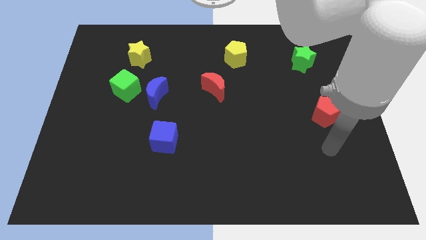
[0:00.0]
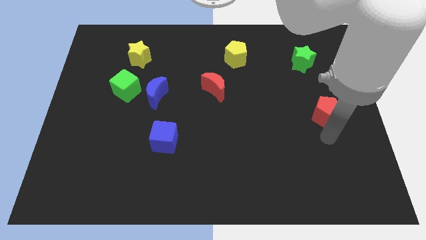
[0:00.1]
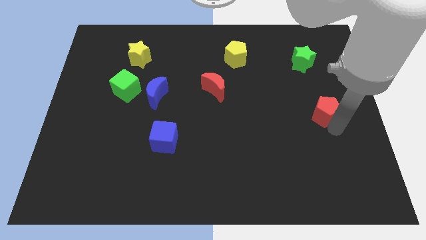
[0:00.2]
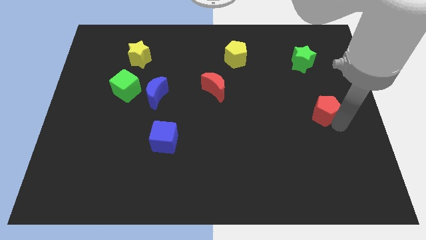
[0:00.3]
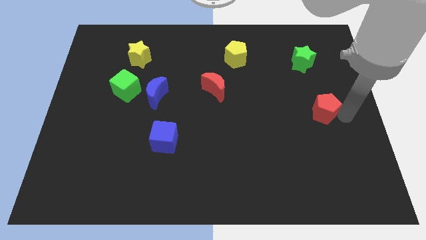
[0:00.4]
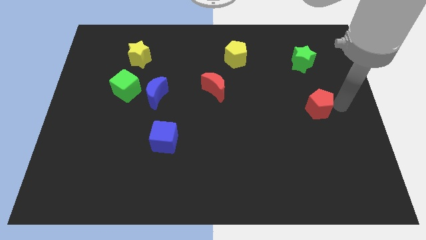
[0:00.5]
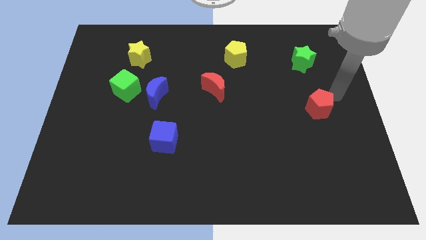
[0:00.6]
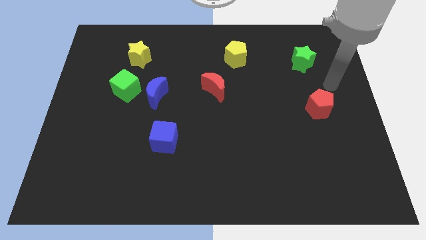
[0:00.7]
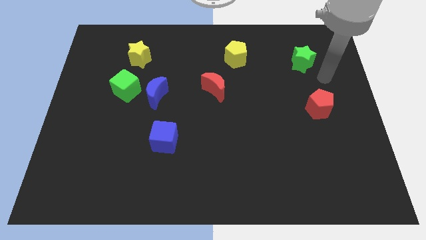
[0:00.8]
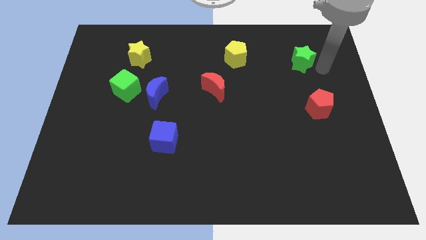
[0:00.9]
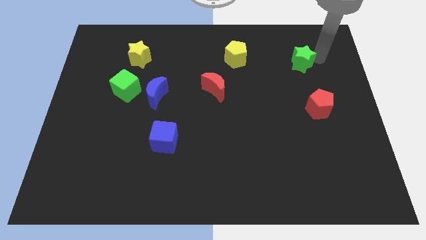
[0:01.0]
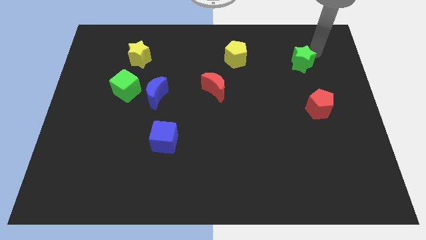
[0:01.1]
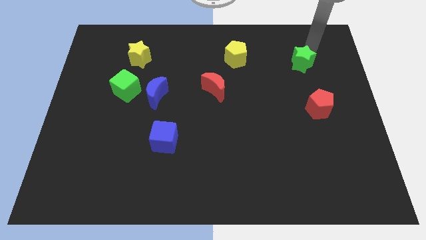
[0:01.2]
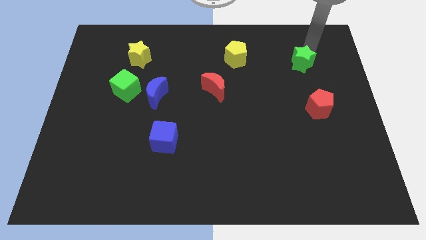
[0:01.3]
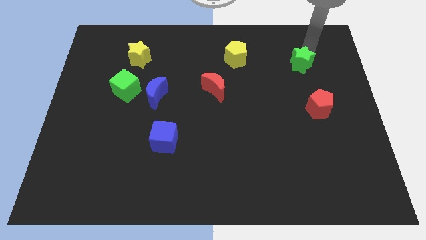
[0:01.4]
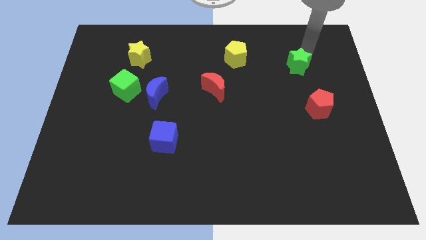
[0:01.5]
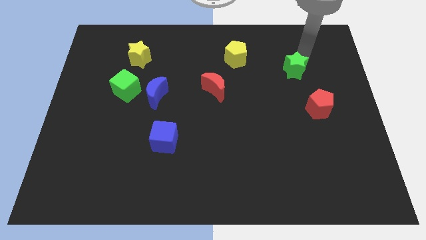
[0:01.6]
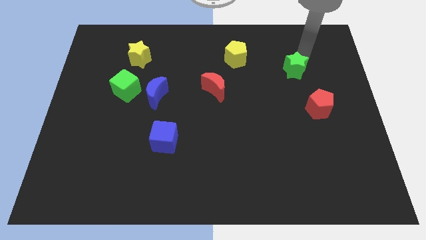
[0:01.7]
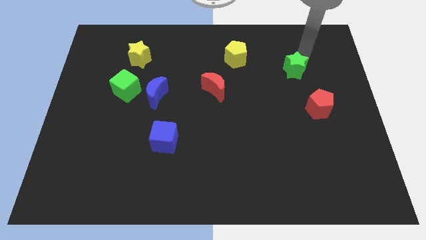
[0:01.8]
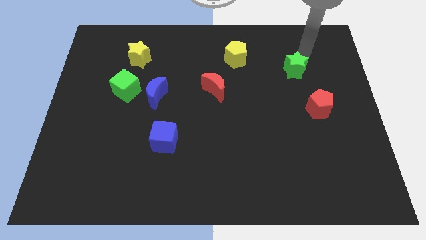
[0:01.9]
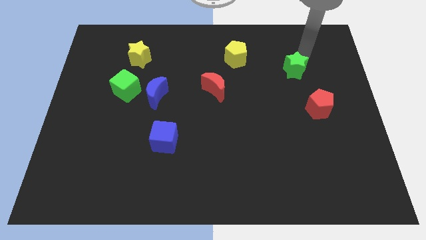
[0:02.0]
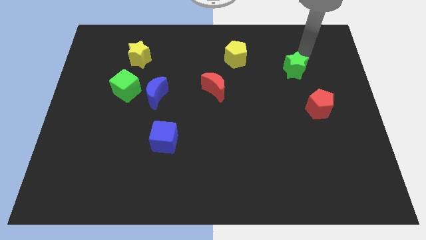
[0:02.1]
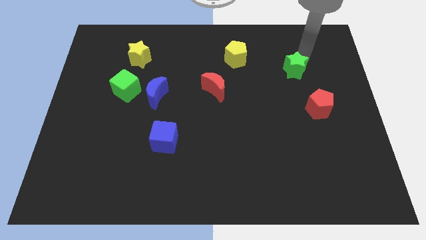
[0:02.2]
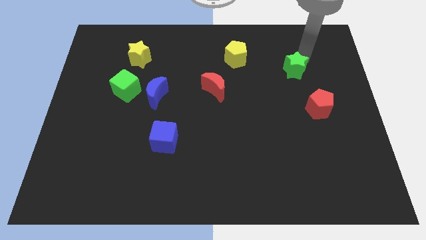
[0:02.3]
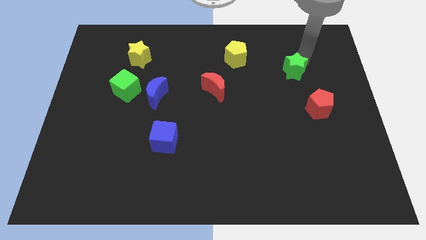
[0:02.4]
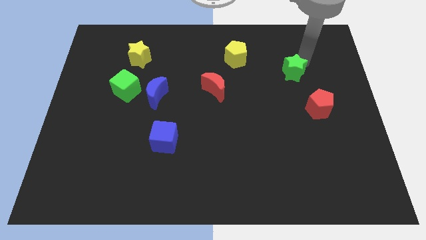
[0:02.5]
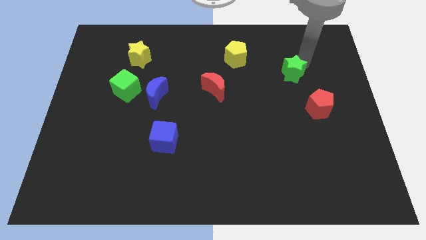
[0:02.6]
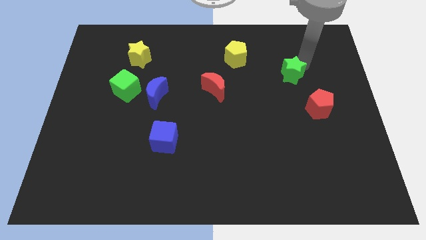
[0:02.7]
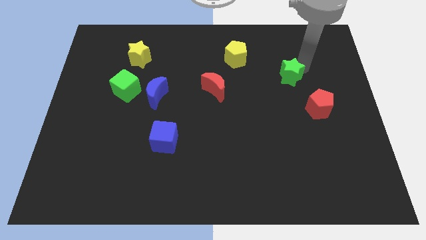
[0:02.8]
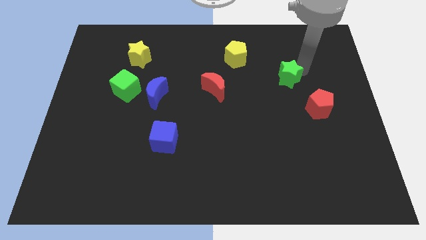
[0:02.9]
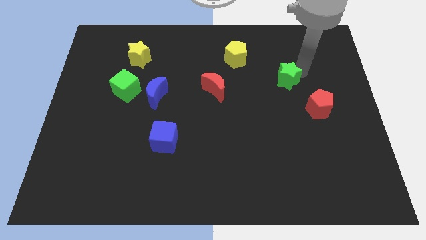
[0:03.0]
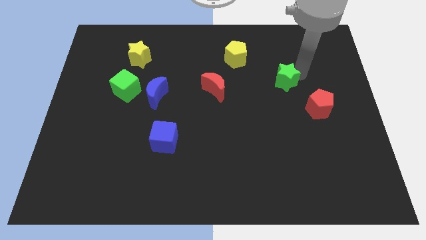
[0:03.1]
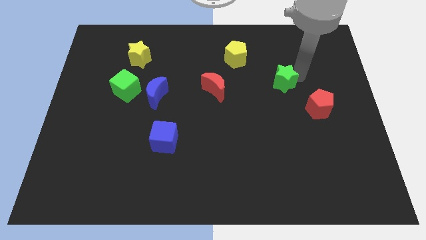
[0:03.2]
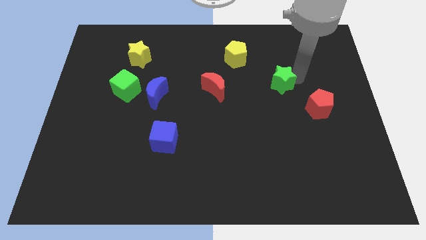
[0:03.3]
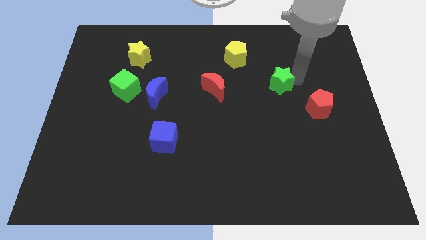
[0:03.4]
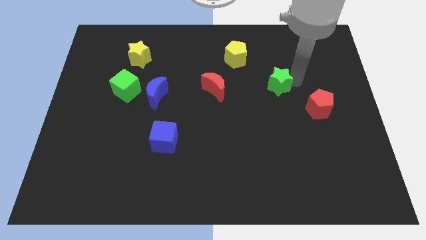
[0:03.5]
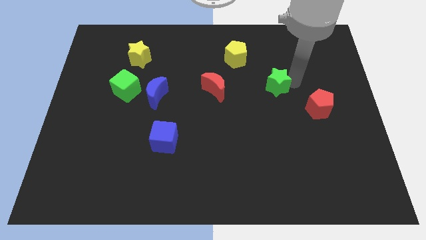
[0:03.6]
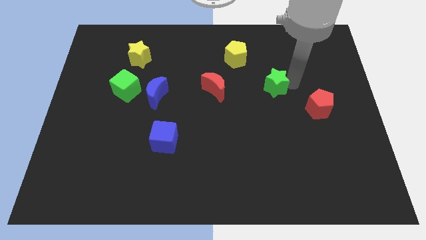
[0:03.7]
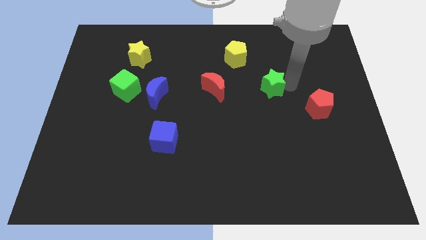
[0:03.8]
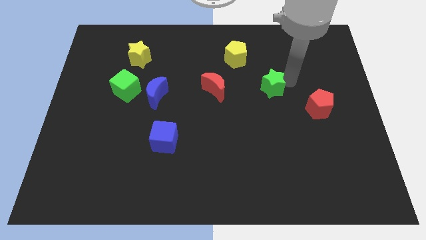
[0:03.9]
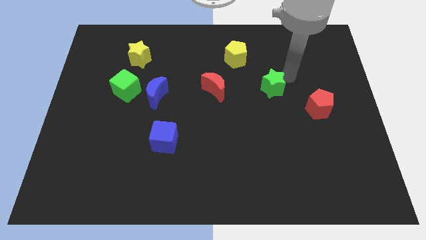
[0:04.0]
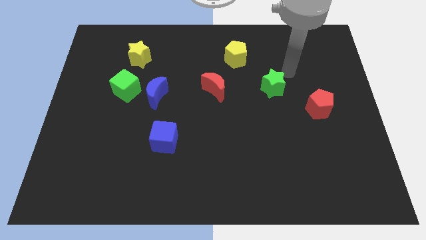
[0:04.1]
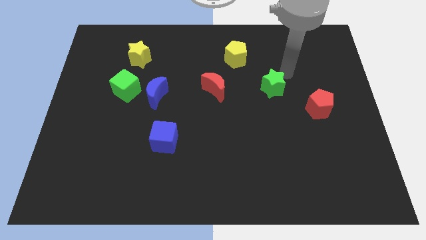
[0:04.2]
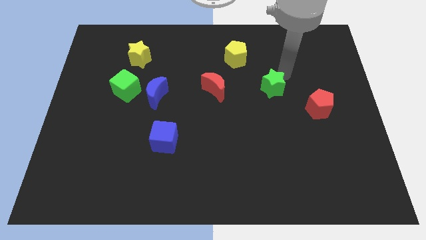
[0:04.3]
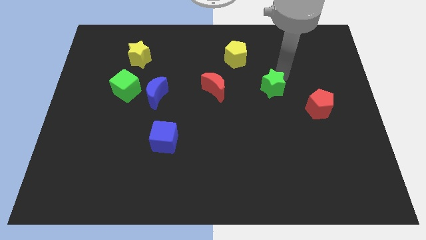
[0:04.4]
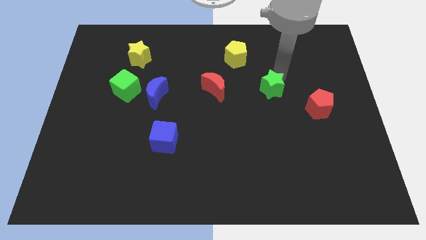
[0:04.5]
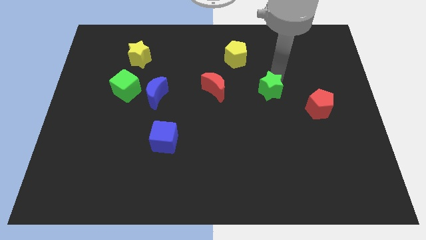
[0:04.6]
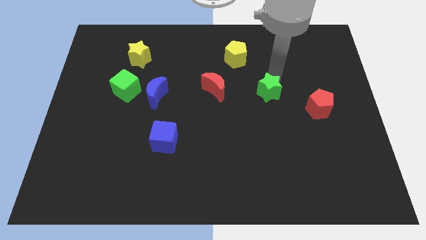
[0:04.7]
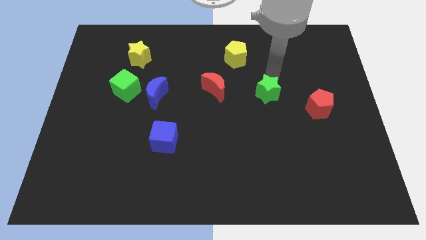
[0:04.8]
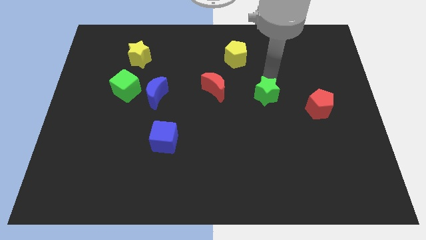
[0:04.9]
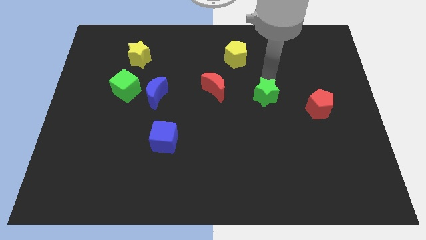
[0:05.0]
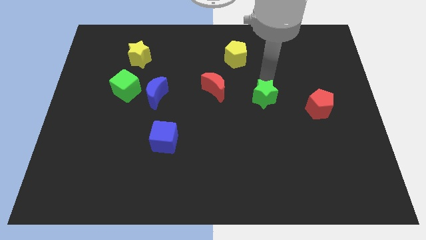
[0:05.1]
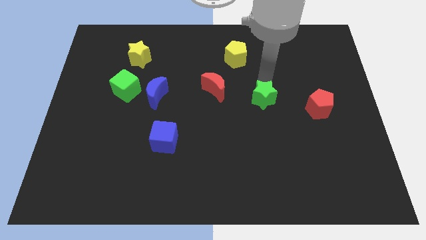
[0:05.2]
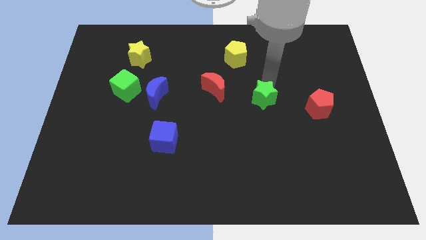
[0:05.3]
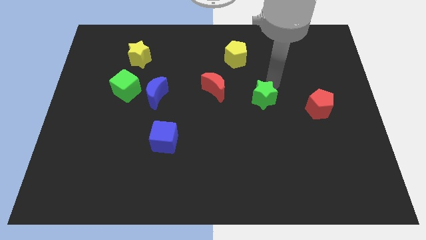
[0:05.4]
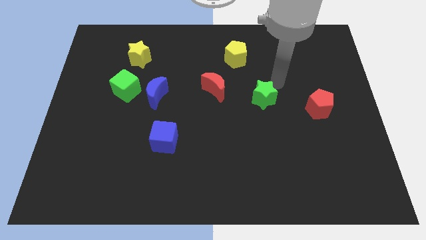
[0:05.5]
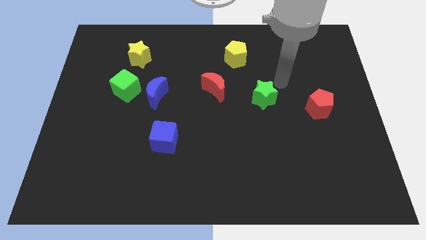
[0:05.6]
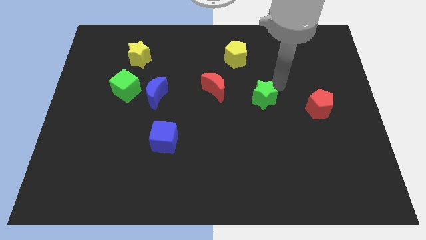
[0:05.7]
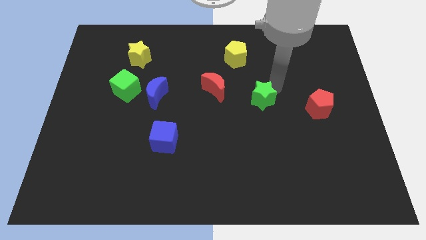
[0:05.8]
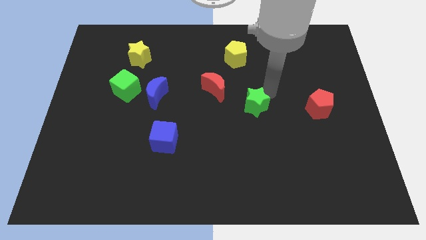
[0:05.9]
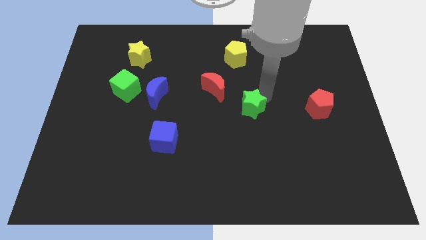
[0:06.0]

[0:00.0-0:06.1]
slide the green star down and to the left diagonally

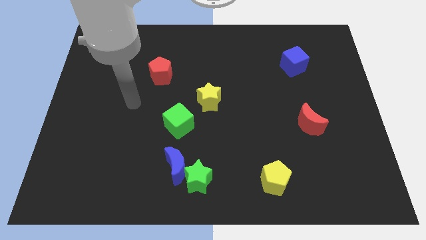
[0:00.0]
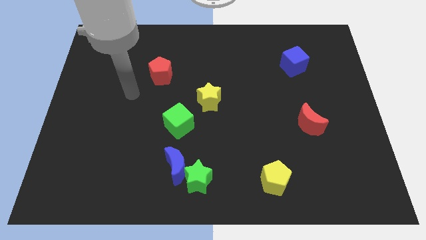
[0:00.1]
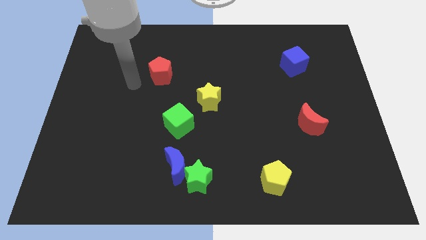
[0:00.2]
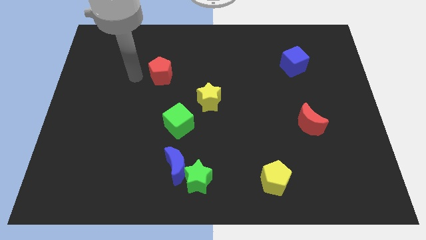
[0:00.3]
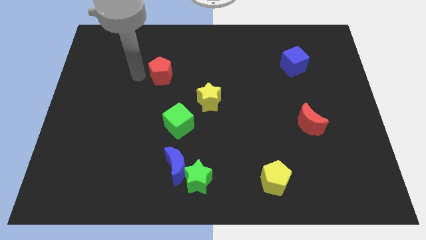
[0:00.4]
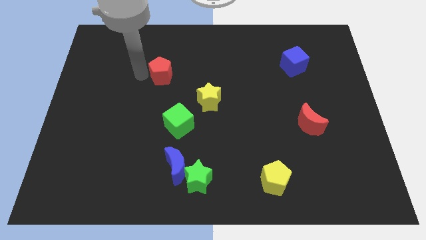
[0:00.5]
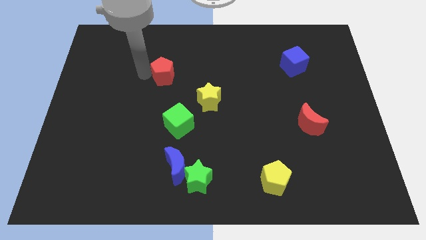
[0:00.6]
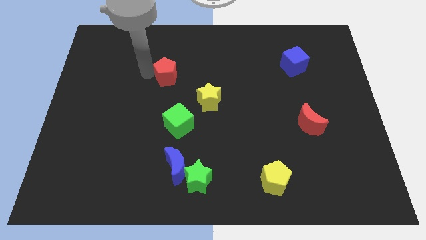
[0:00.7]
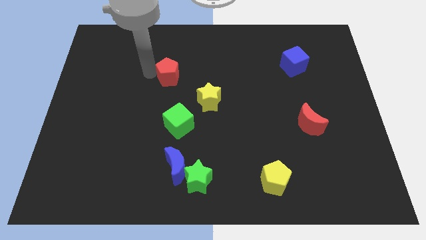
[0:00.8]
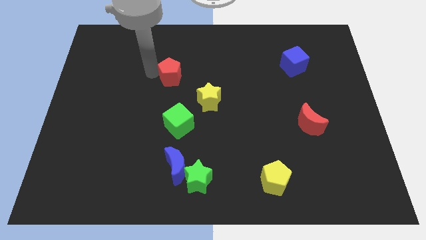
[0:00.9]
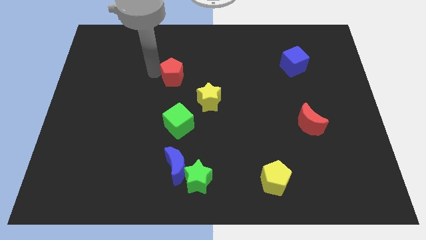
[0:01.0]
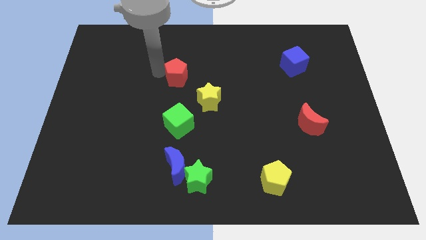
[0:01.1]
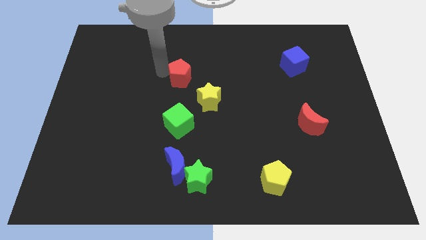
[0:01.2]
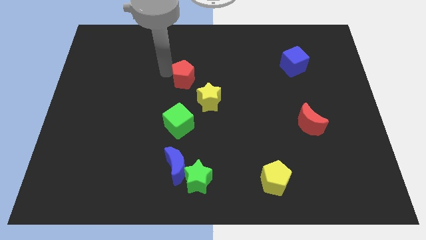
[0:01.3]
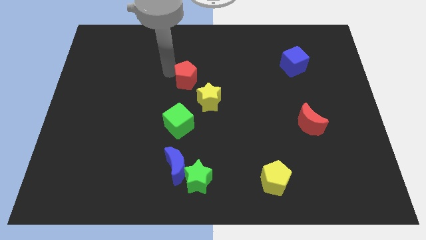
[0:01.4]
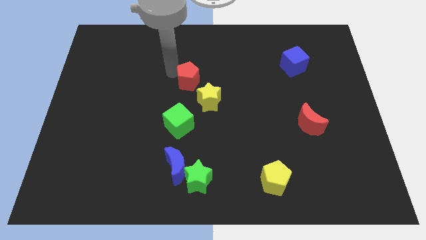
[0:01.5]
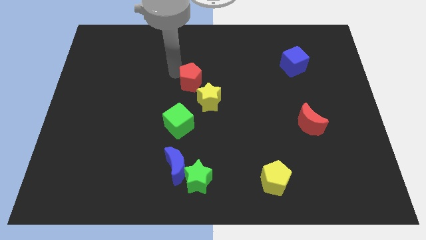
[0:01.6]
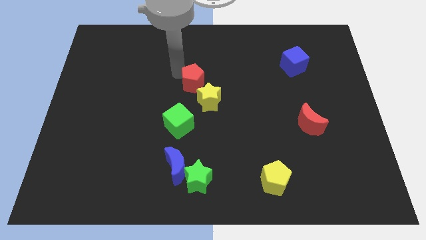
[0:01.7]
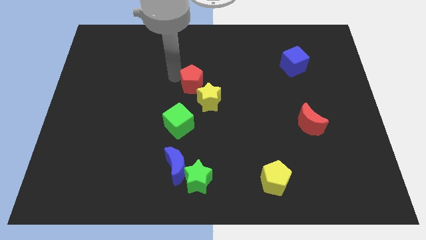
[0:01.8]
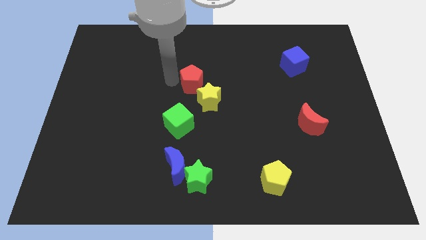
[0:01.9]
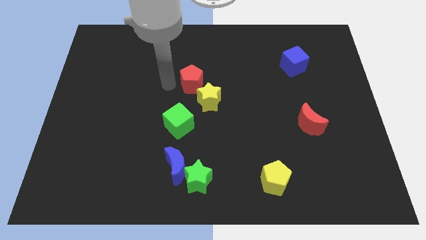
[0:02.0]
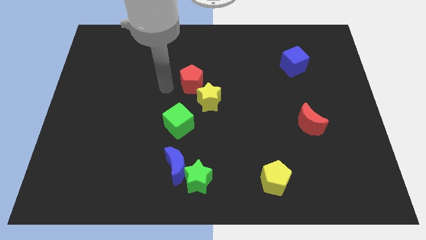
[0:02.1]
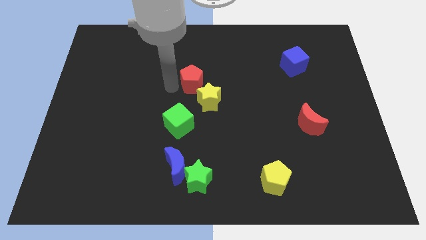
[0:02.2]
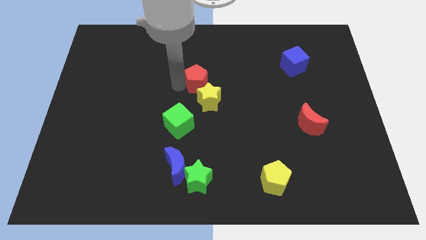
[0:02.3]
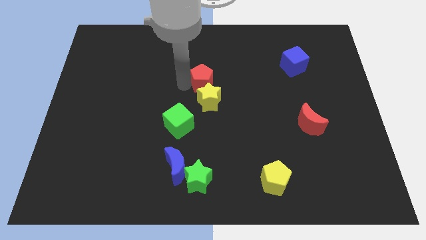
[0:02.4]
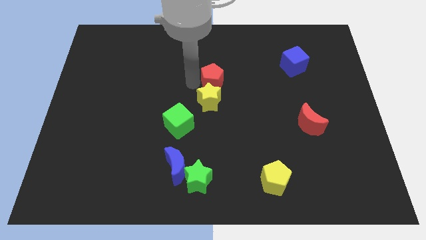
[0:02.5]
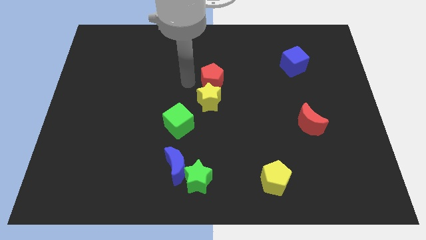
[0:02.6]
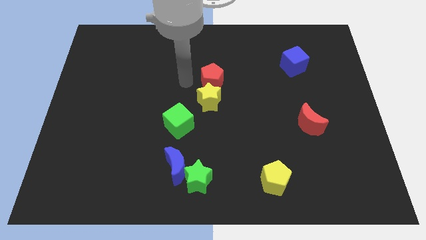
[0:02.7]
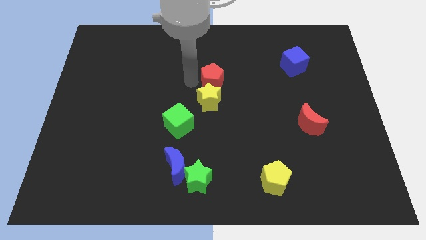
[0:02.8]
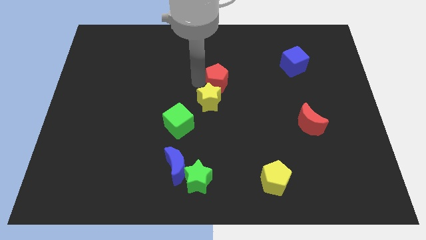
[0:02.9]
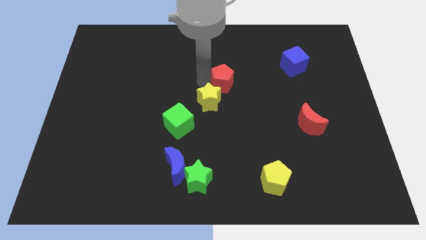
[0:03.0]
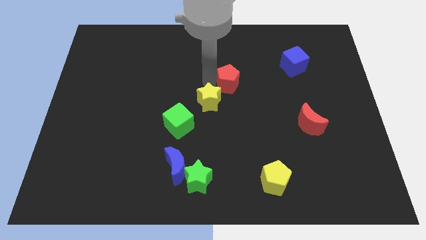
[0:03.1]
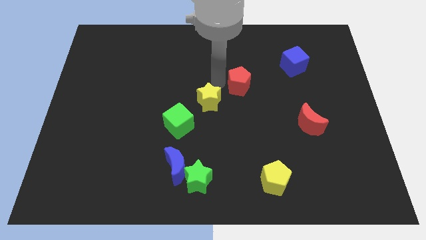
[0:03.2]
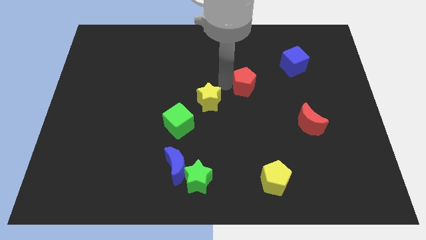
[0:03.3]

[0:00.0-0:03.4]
slide the red pentagon right
